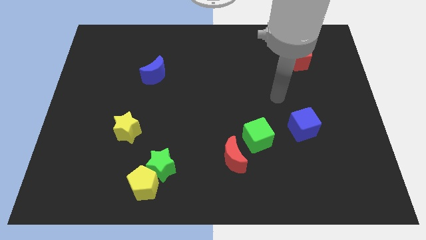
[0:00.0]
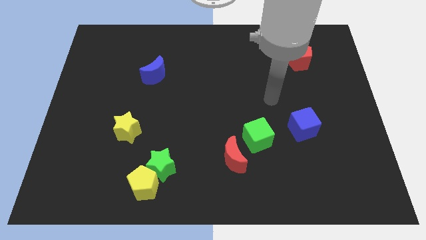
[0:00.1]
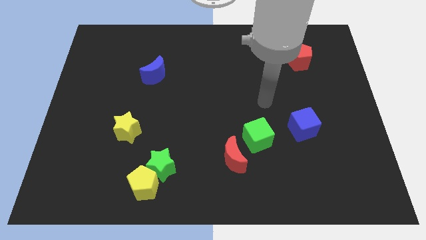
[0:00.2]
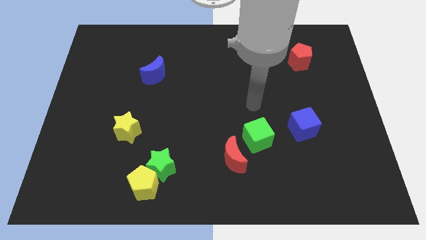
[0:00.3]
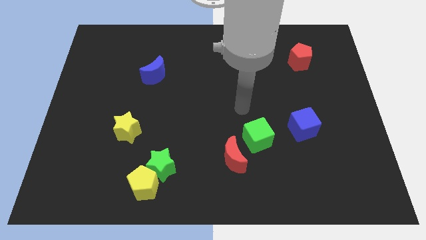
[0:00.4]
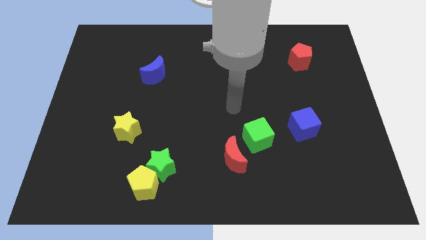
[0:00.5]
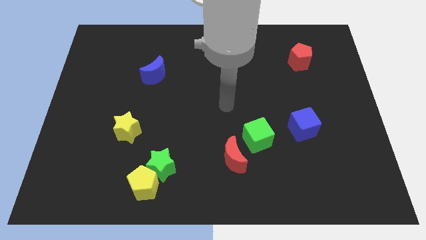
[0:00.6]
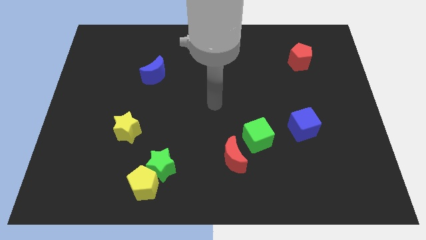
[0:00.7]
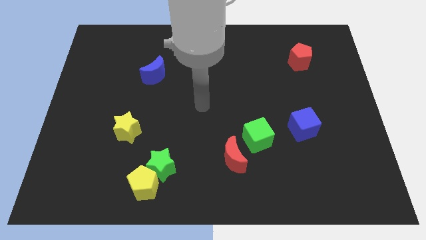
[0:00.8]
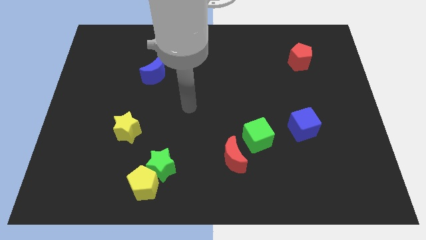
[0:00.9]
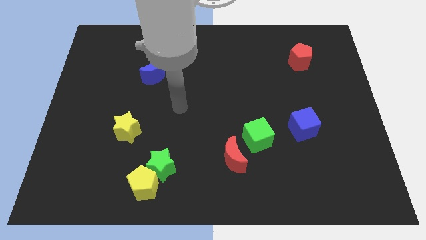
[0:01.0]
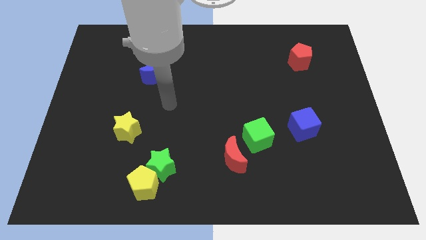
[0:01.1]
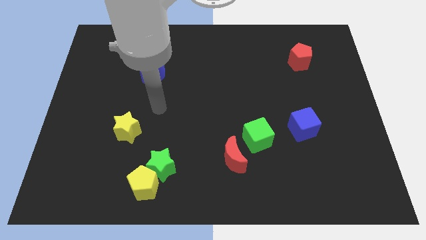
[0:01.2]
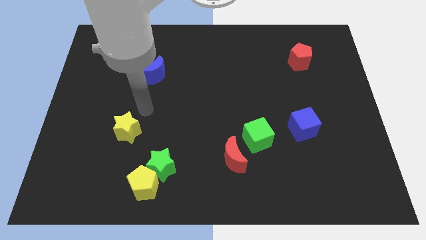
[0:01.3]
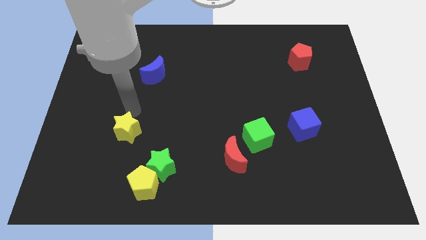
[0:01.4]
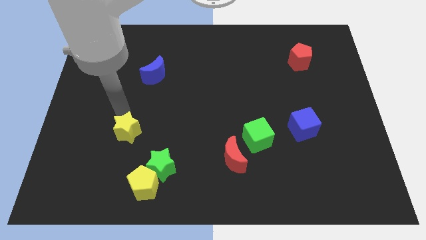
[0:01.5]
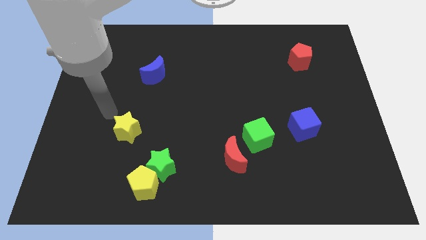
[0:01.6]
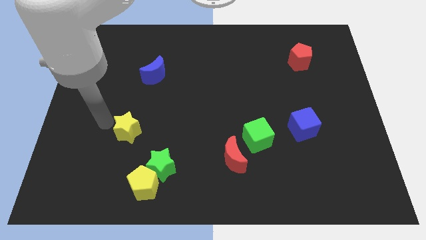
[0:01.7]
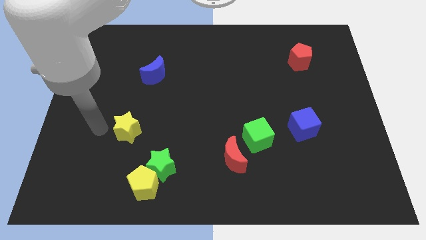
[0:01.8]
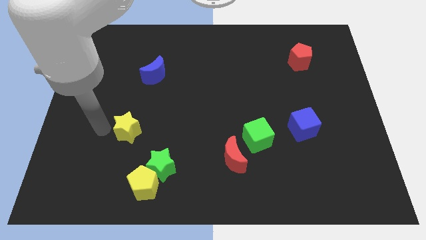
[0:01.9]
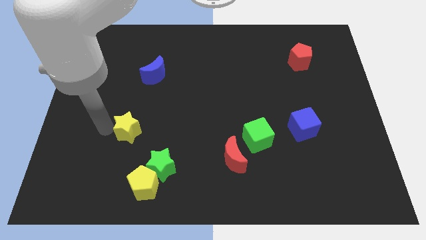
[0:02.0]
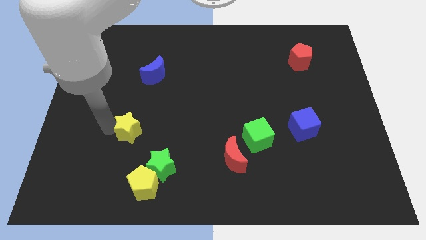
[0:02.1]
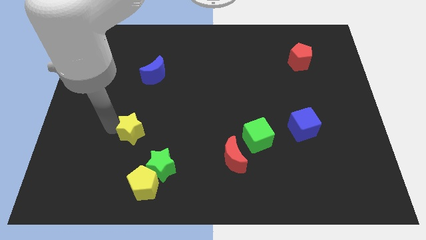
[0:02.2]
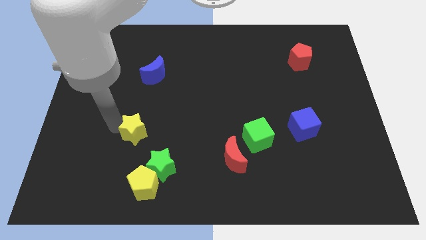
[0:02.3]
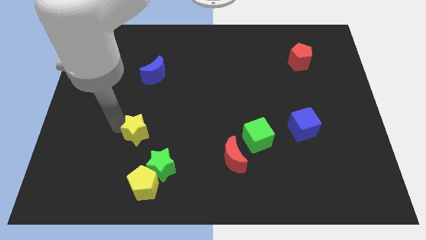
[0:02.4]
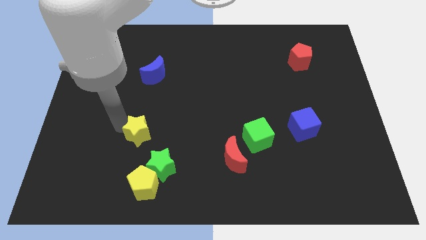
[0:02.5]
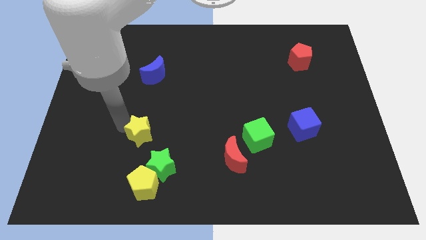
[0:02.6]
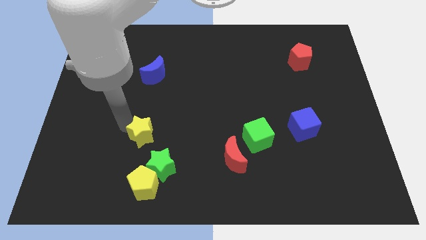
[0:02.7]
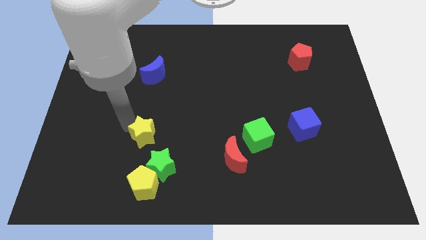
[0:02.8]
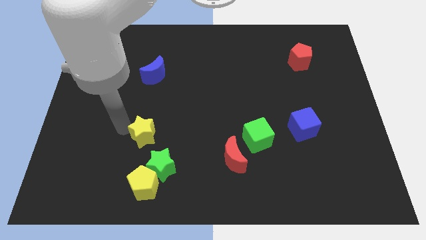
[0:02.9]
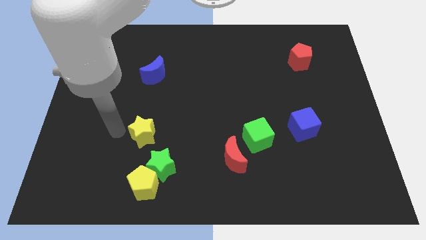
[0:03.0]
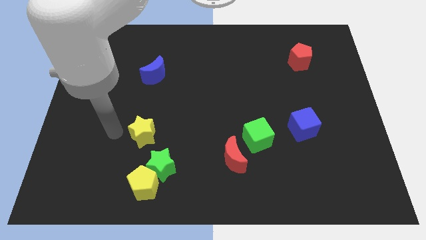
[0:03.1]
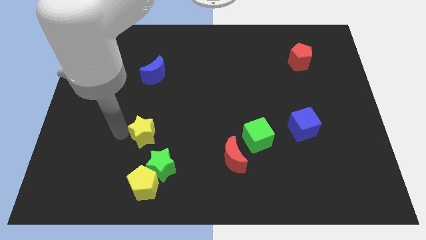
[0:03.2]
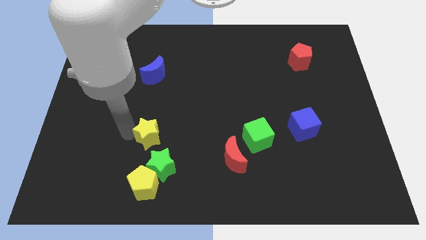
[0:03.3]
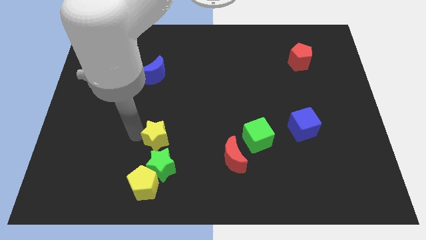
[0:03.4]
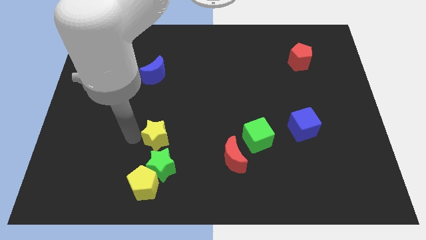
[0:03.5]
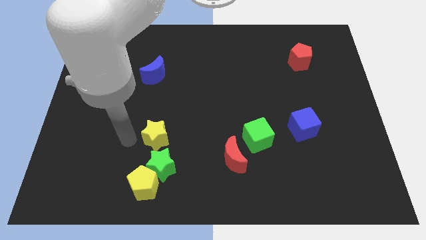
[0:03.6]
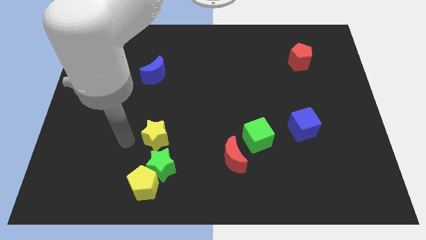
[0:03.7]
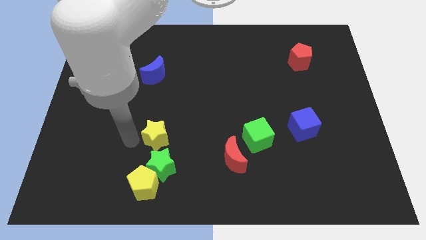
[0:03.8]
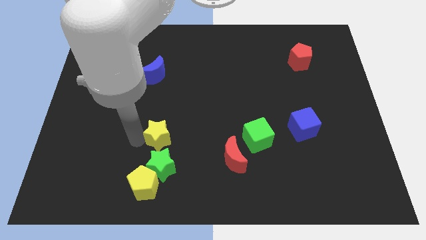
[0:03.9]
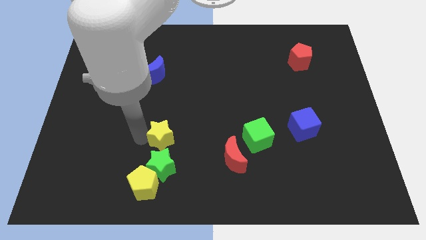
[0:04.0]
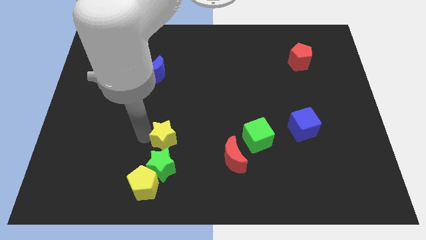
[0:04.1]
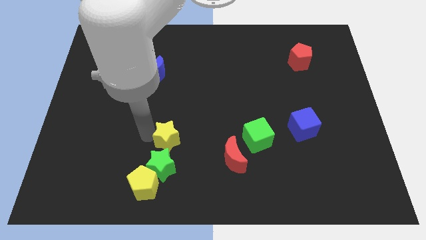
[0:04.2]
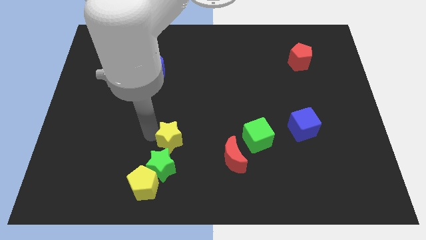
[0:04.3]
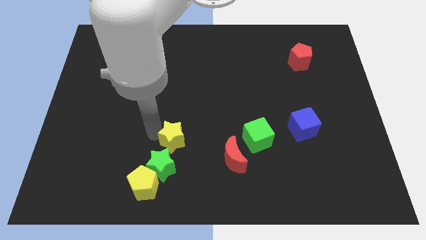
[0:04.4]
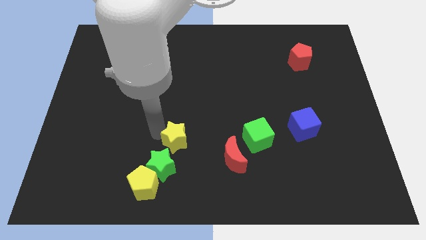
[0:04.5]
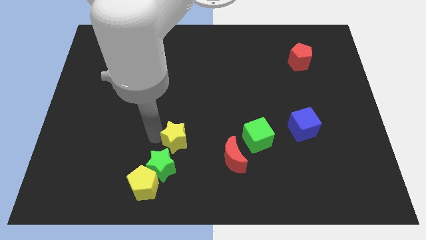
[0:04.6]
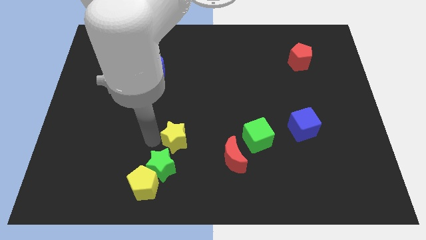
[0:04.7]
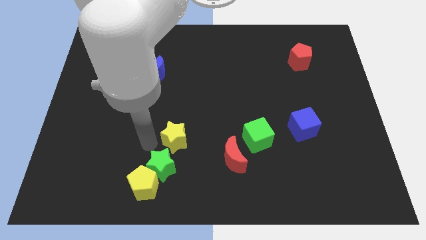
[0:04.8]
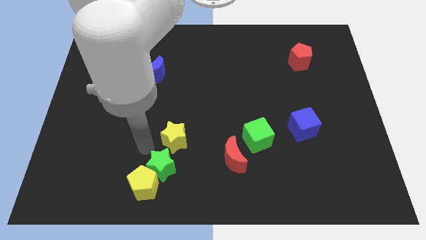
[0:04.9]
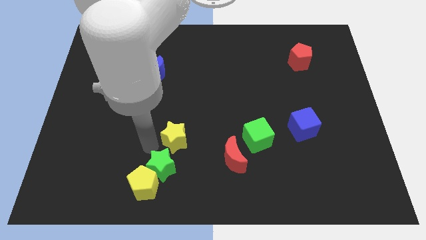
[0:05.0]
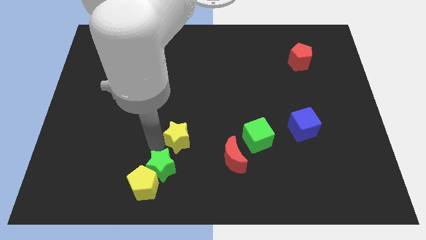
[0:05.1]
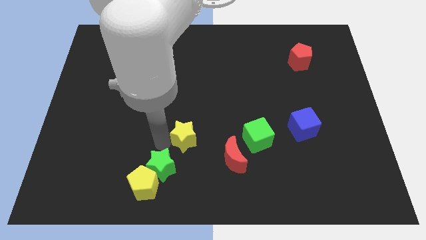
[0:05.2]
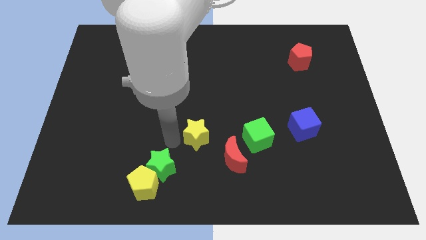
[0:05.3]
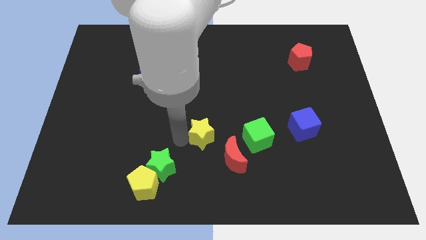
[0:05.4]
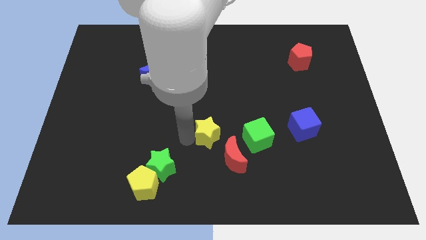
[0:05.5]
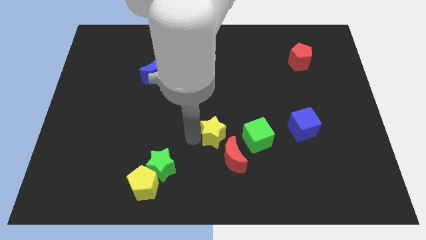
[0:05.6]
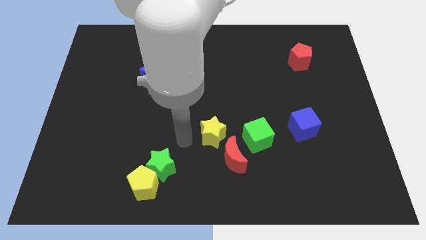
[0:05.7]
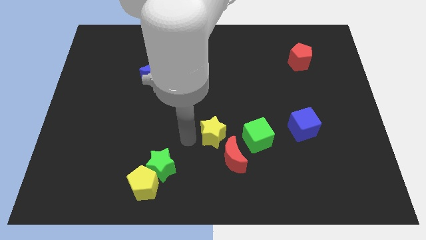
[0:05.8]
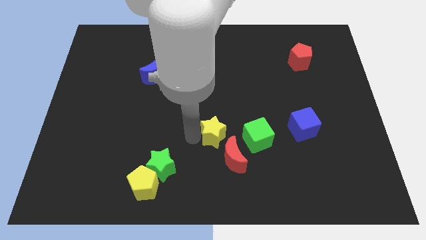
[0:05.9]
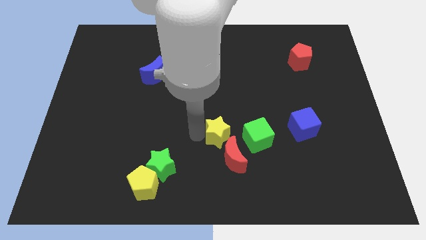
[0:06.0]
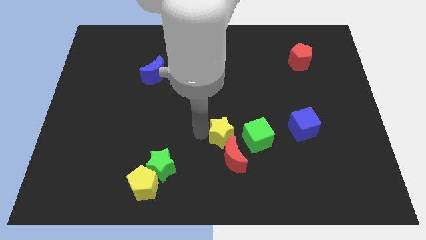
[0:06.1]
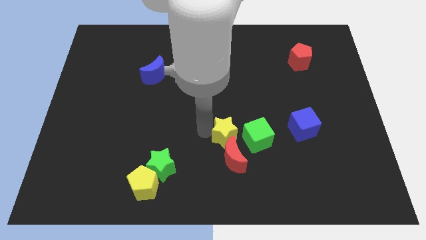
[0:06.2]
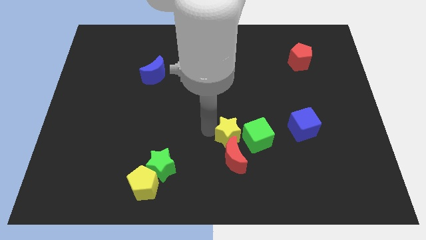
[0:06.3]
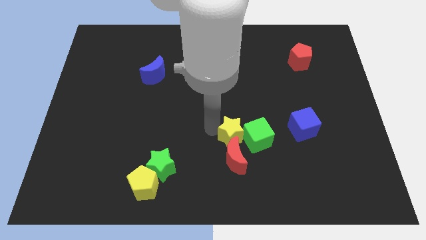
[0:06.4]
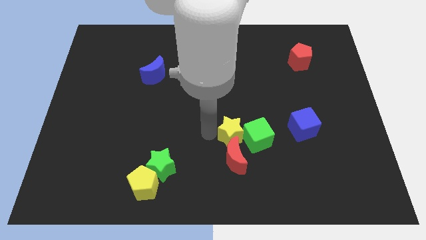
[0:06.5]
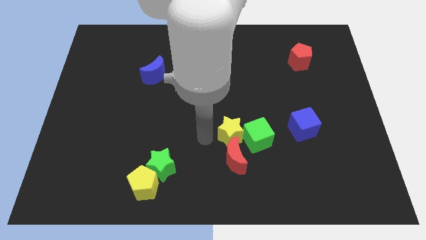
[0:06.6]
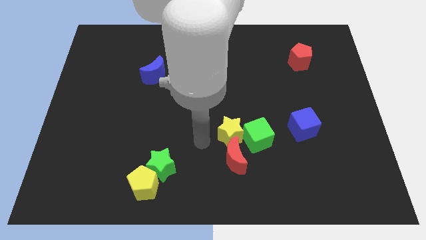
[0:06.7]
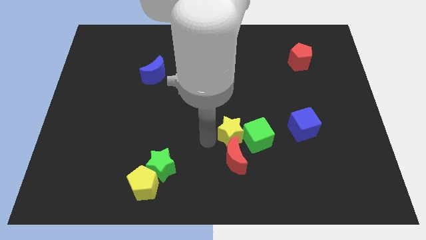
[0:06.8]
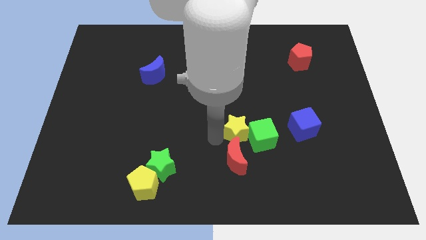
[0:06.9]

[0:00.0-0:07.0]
push the yellow star just left of the blue cube
